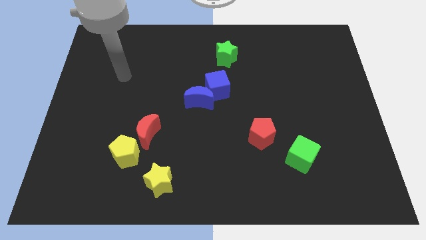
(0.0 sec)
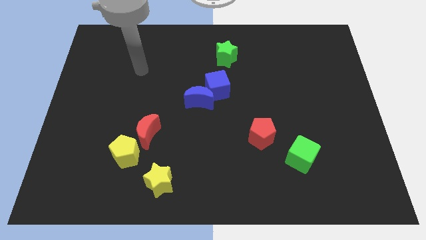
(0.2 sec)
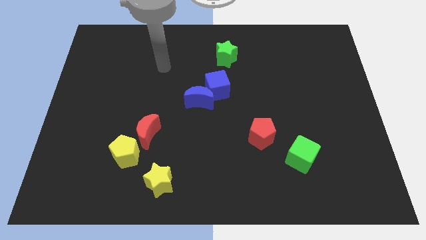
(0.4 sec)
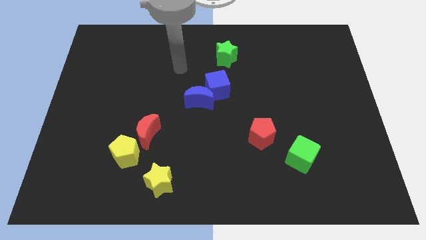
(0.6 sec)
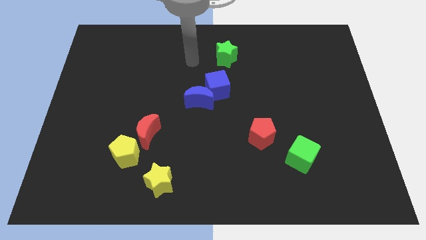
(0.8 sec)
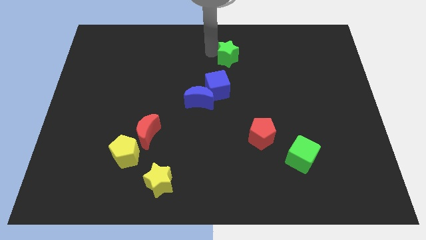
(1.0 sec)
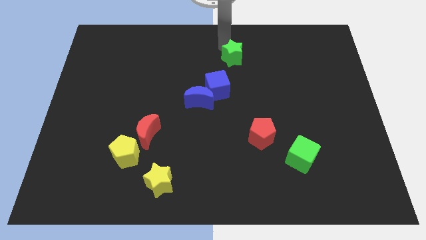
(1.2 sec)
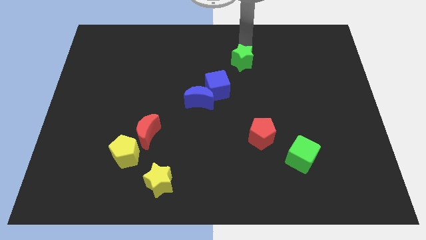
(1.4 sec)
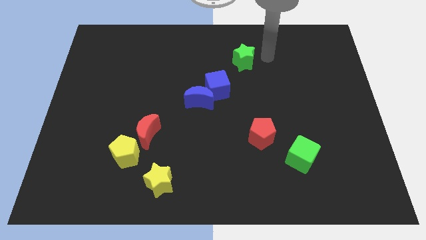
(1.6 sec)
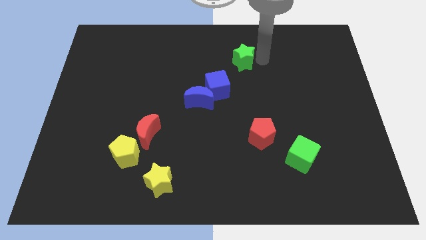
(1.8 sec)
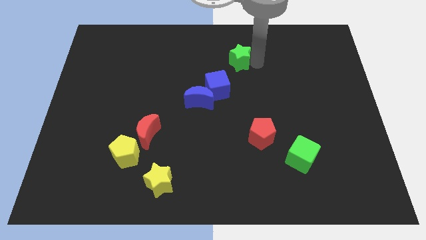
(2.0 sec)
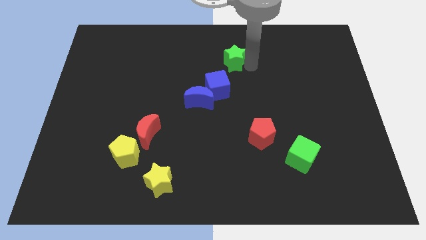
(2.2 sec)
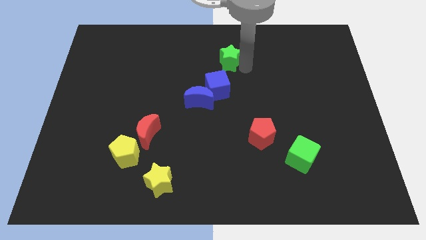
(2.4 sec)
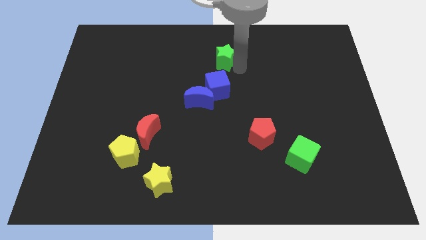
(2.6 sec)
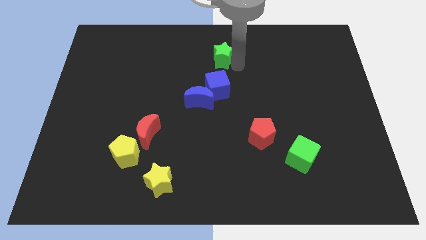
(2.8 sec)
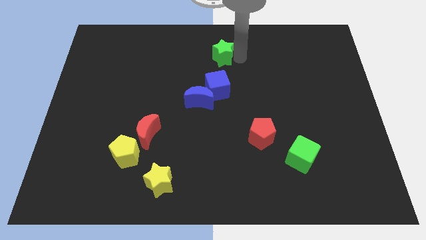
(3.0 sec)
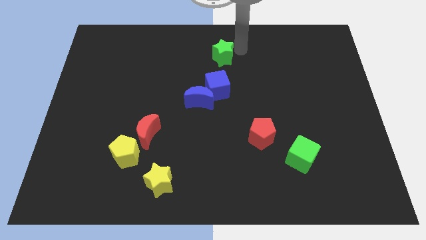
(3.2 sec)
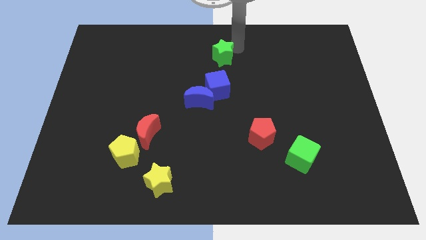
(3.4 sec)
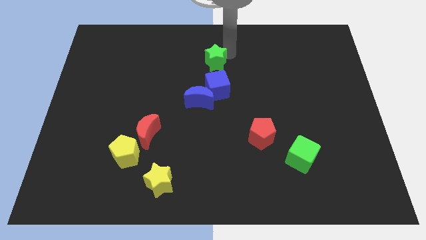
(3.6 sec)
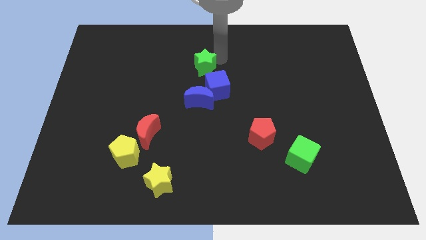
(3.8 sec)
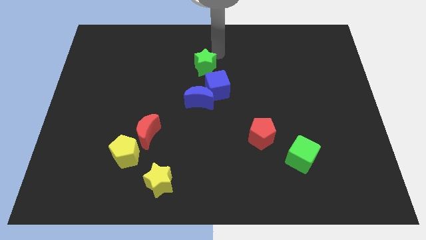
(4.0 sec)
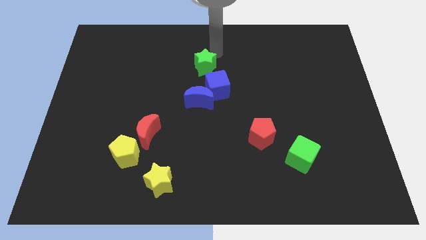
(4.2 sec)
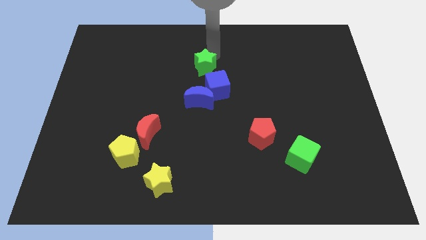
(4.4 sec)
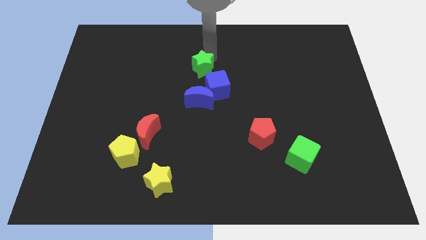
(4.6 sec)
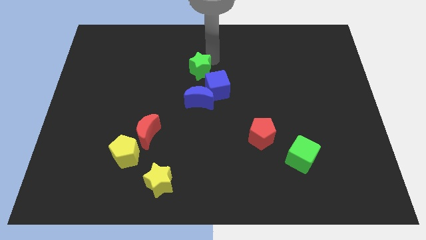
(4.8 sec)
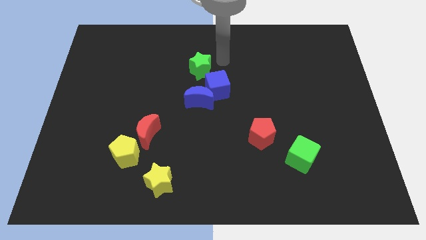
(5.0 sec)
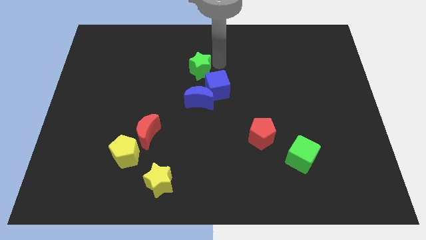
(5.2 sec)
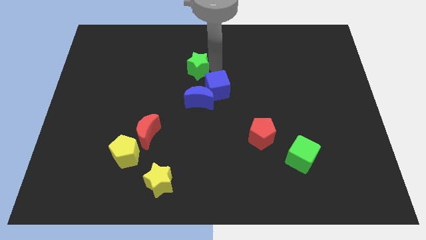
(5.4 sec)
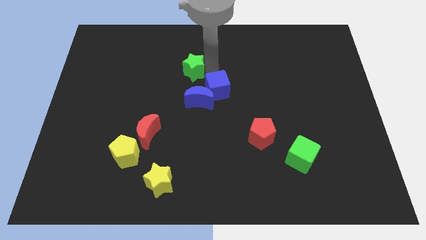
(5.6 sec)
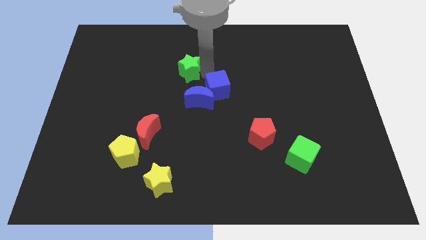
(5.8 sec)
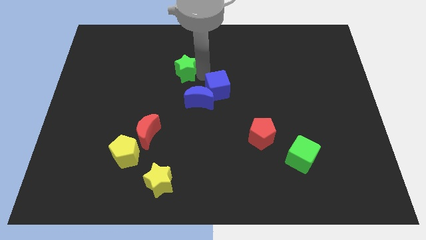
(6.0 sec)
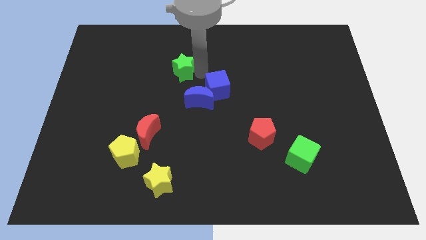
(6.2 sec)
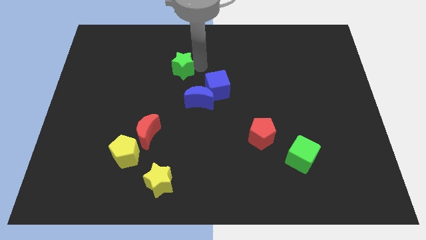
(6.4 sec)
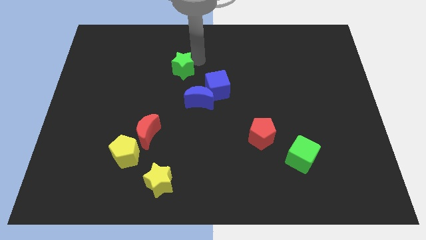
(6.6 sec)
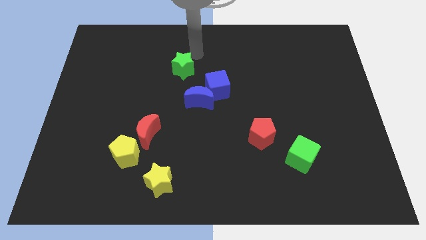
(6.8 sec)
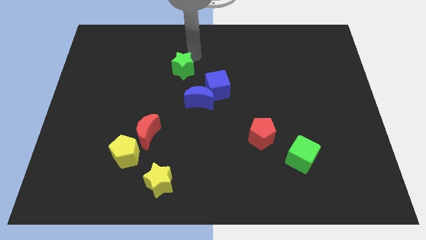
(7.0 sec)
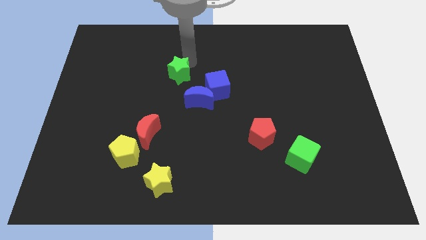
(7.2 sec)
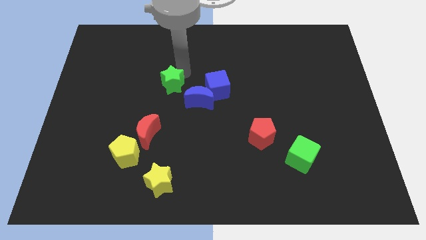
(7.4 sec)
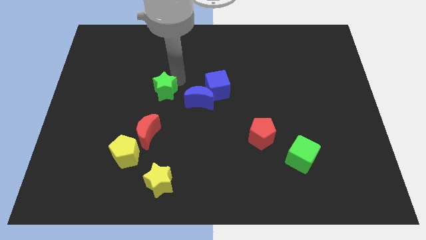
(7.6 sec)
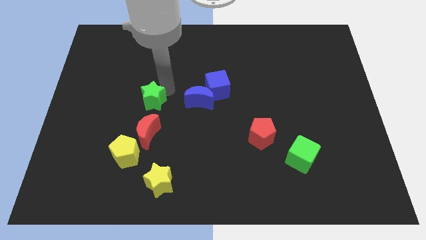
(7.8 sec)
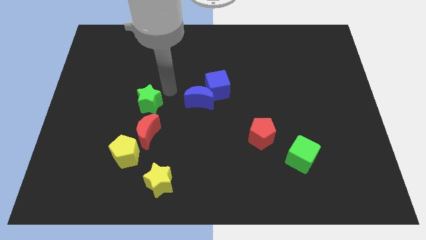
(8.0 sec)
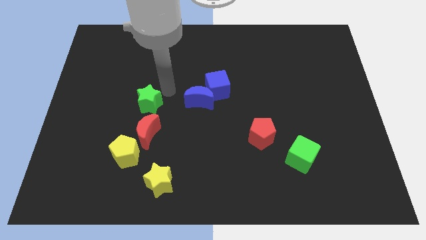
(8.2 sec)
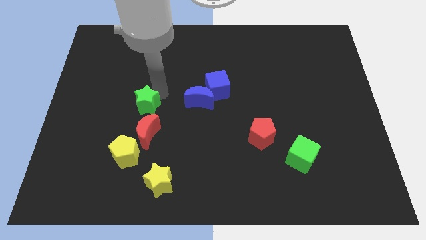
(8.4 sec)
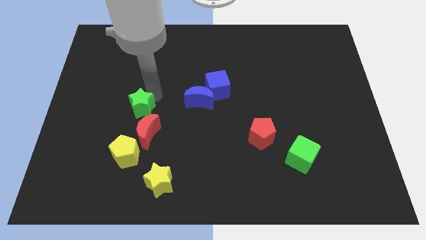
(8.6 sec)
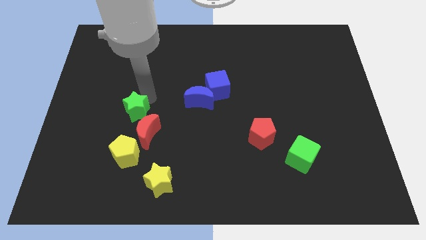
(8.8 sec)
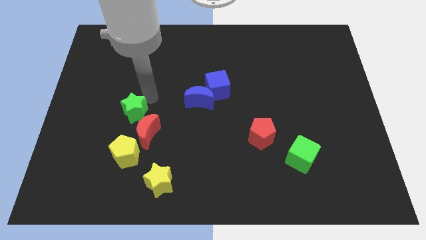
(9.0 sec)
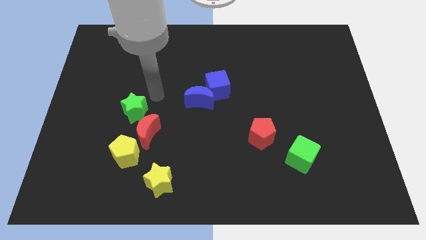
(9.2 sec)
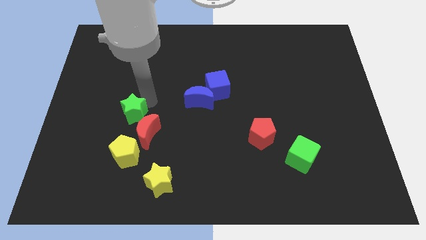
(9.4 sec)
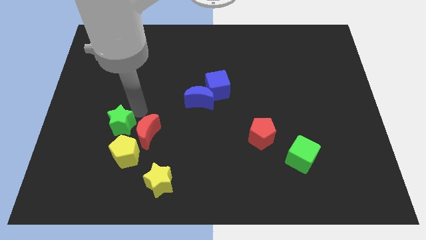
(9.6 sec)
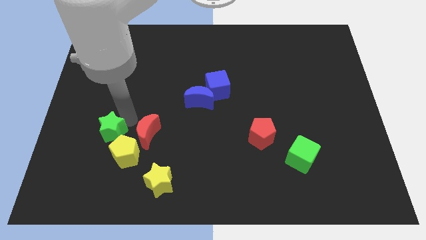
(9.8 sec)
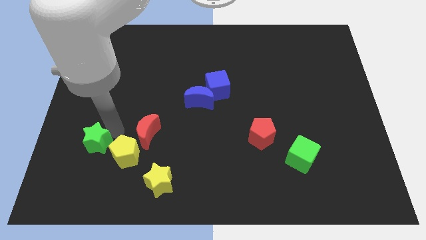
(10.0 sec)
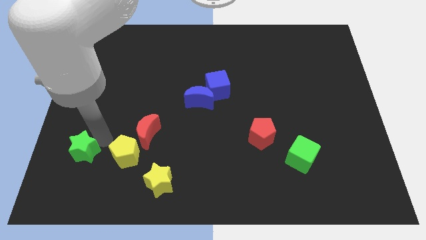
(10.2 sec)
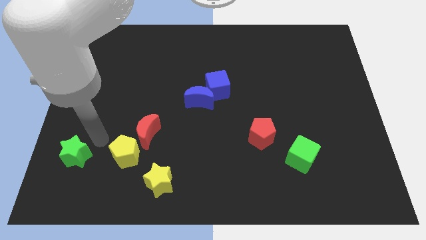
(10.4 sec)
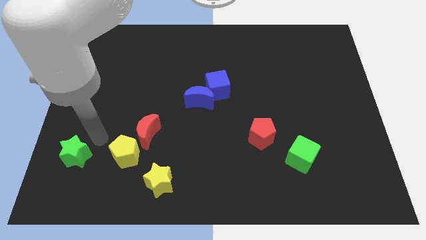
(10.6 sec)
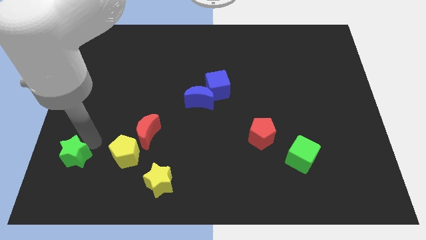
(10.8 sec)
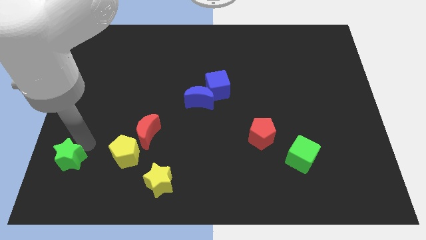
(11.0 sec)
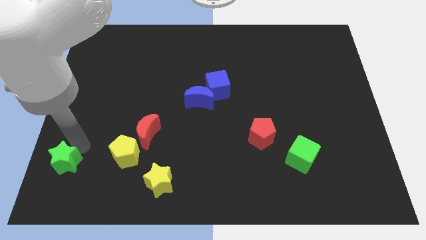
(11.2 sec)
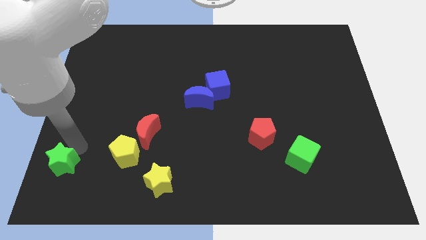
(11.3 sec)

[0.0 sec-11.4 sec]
move the green star to the lower left corner
